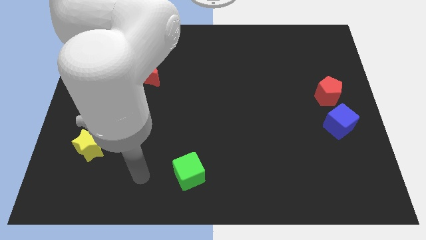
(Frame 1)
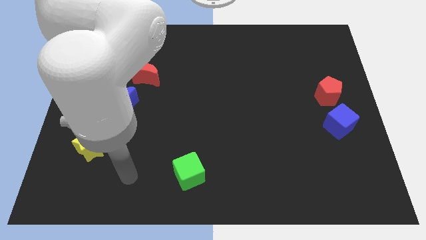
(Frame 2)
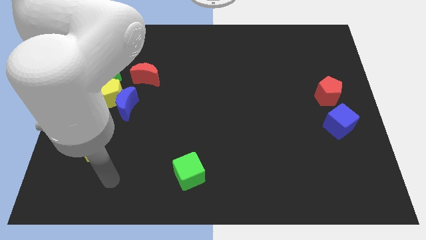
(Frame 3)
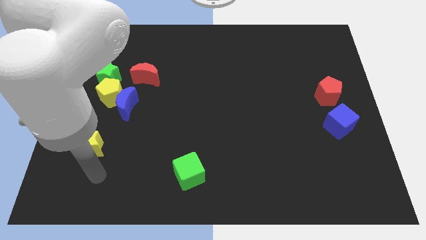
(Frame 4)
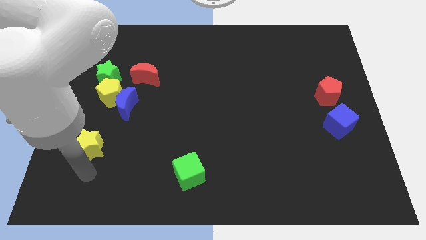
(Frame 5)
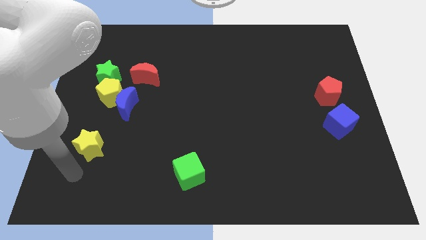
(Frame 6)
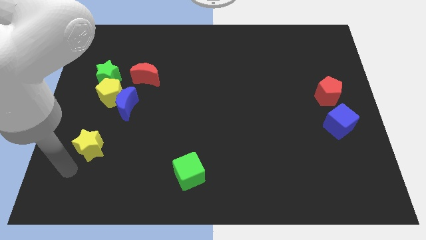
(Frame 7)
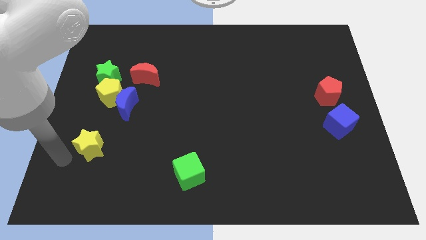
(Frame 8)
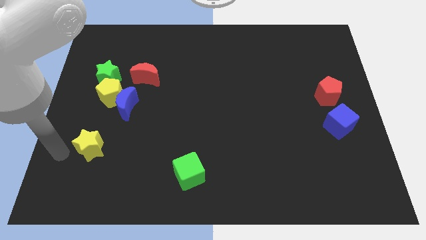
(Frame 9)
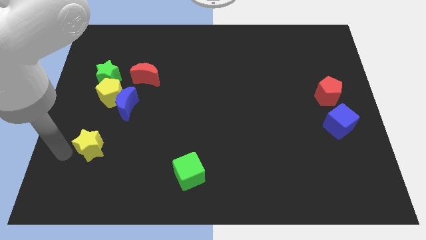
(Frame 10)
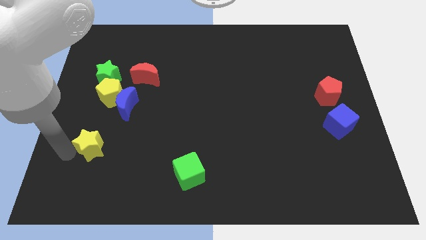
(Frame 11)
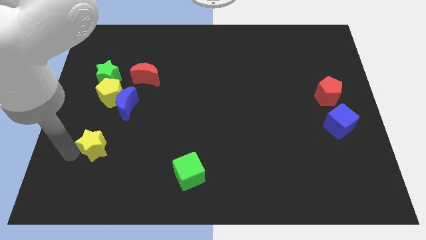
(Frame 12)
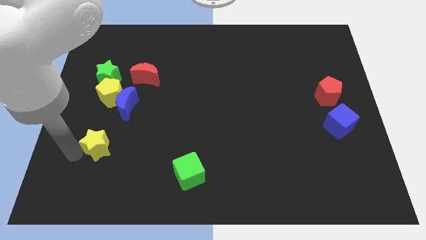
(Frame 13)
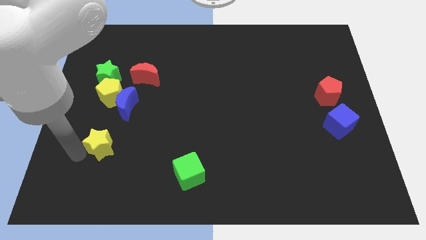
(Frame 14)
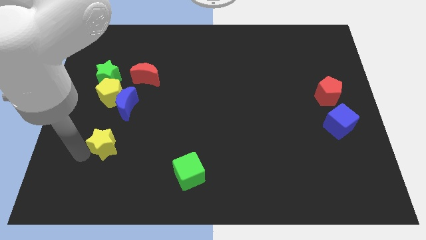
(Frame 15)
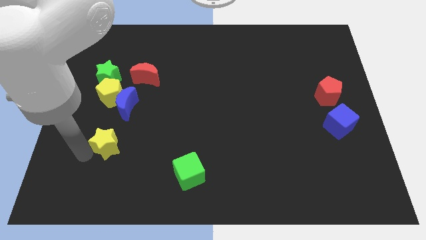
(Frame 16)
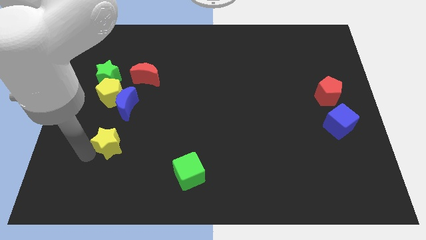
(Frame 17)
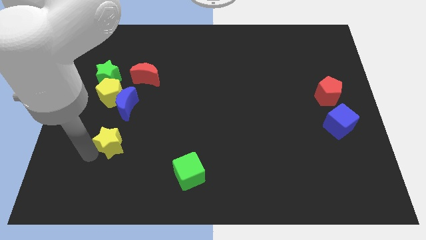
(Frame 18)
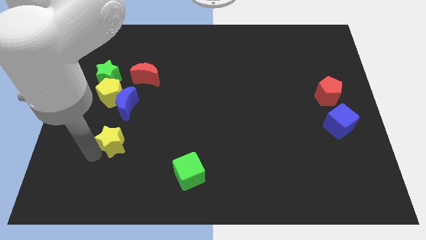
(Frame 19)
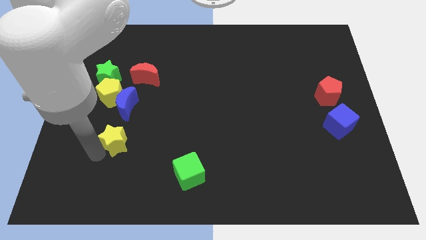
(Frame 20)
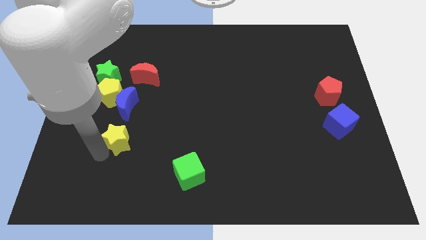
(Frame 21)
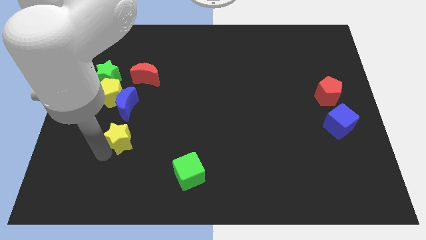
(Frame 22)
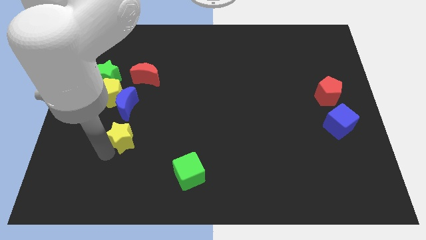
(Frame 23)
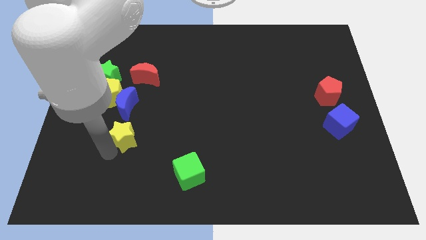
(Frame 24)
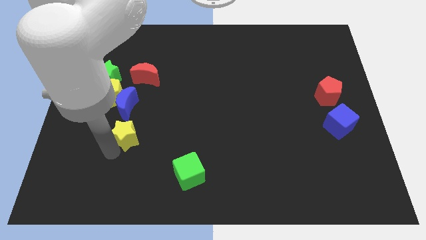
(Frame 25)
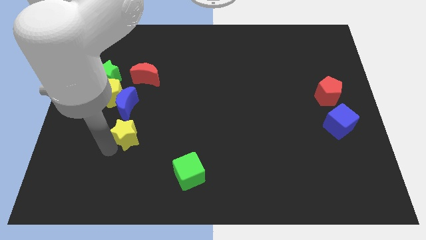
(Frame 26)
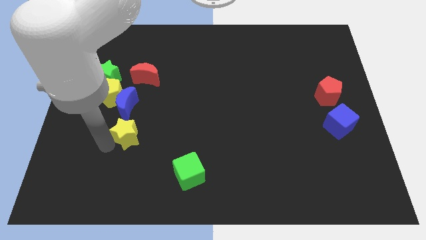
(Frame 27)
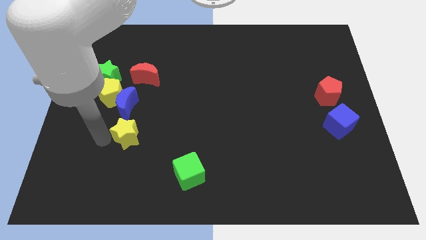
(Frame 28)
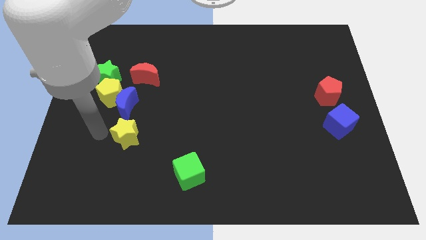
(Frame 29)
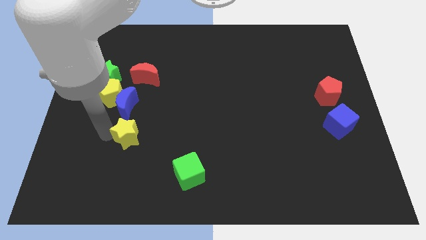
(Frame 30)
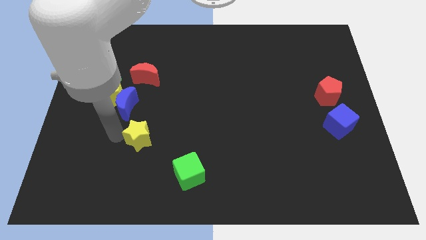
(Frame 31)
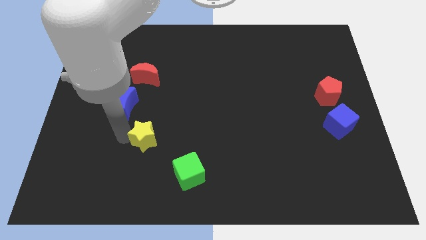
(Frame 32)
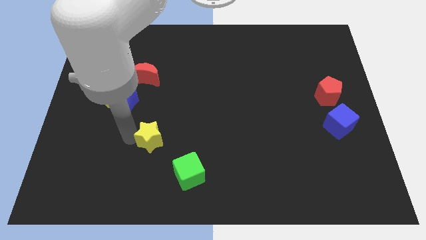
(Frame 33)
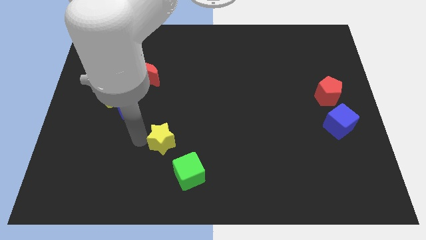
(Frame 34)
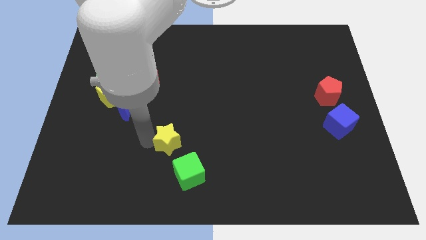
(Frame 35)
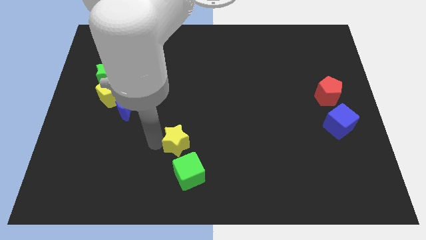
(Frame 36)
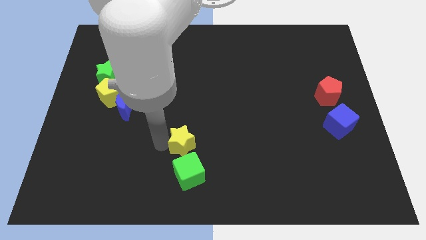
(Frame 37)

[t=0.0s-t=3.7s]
slide the yellow star to the right

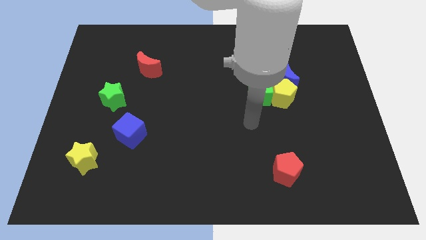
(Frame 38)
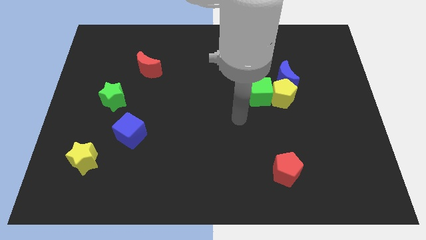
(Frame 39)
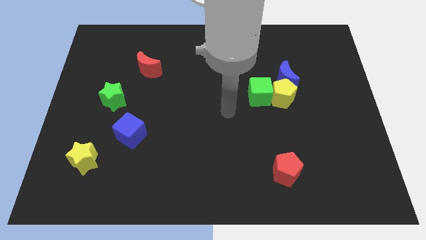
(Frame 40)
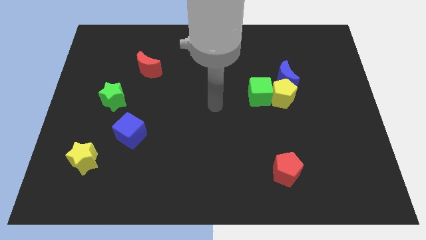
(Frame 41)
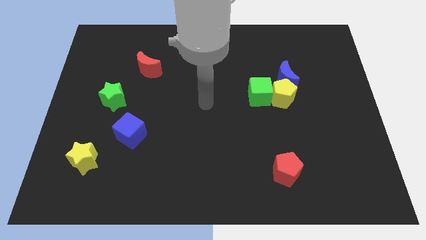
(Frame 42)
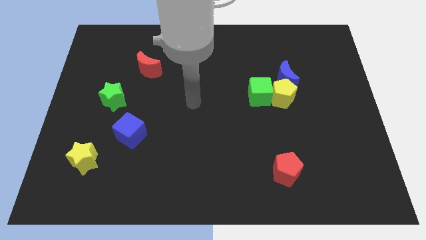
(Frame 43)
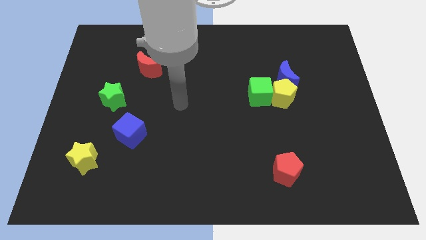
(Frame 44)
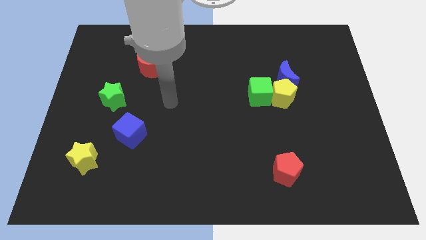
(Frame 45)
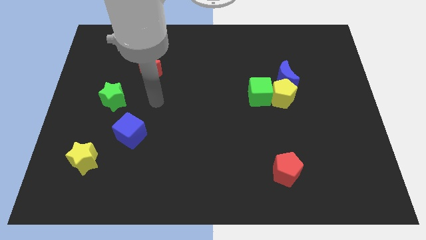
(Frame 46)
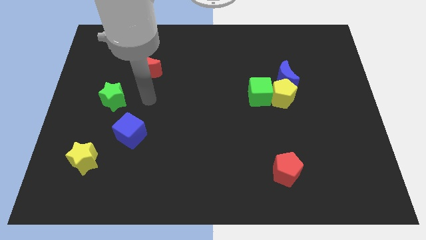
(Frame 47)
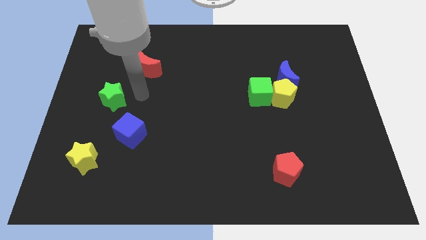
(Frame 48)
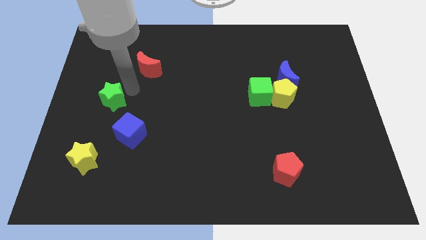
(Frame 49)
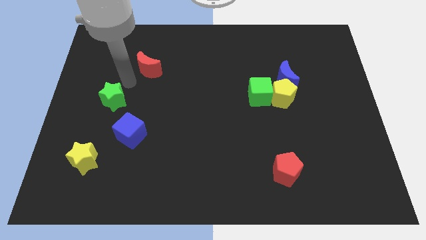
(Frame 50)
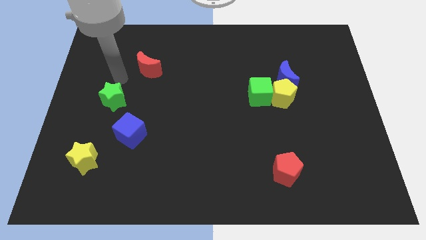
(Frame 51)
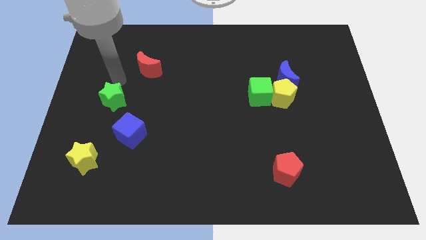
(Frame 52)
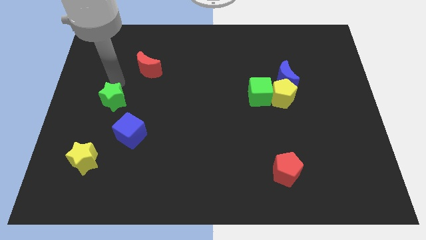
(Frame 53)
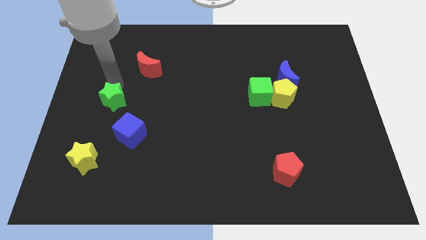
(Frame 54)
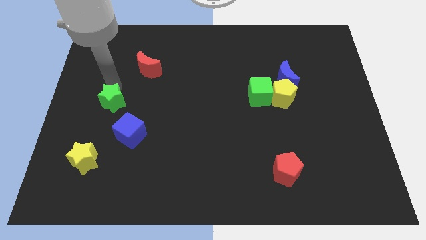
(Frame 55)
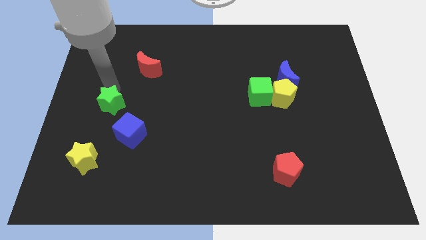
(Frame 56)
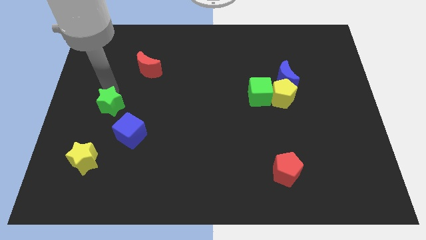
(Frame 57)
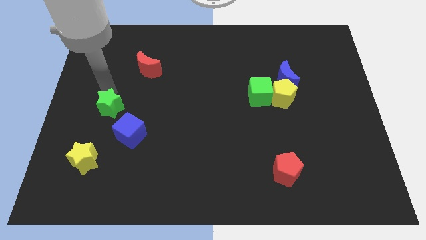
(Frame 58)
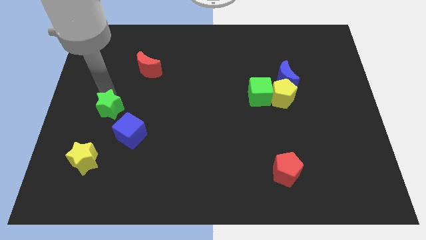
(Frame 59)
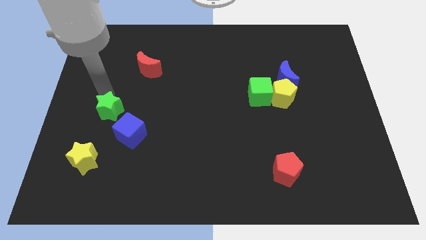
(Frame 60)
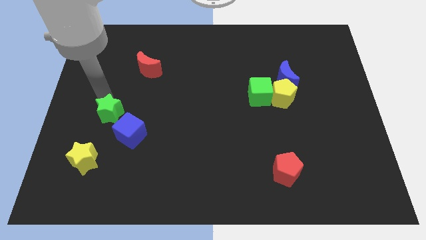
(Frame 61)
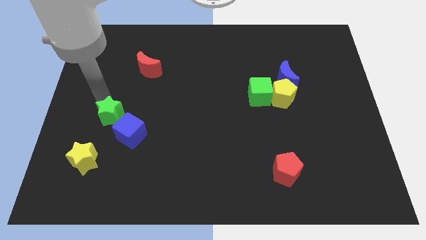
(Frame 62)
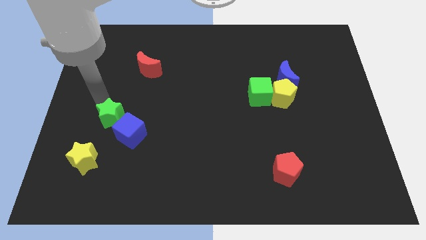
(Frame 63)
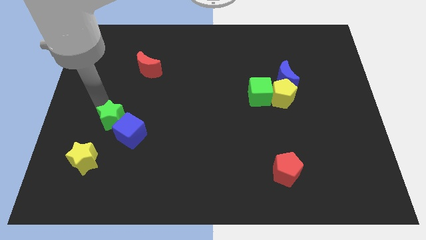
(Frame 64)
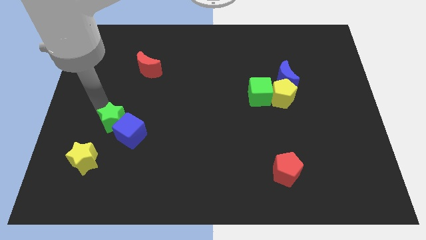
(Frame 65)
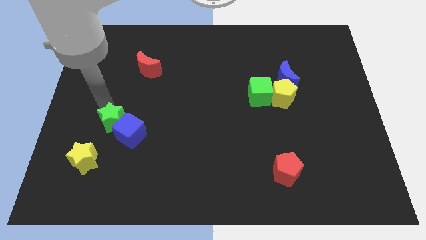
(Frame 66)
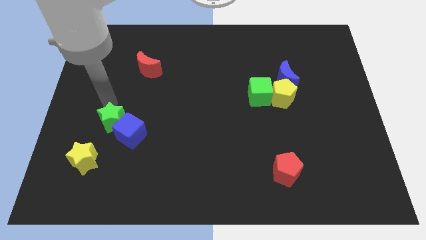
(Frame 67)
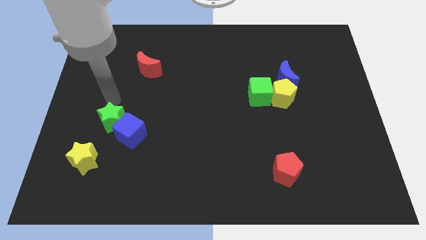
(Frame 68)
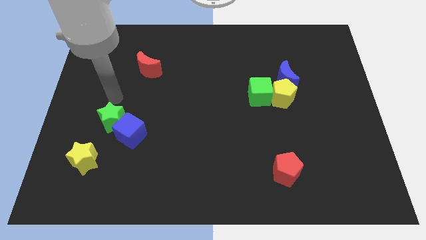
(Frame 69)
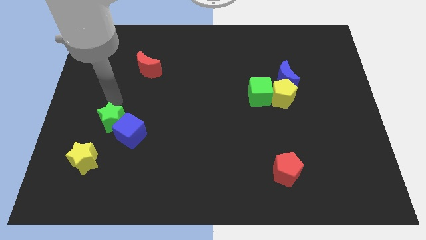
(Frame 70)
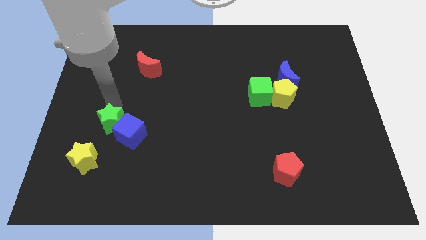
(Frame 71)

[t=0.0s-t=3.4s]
slightly push the green star downwards

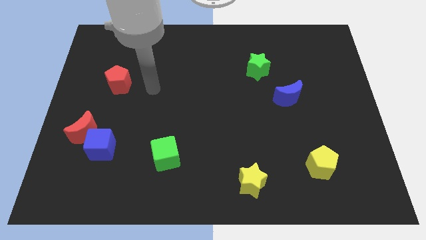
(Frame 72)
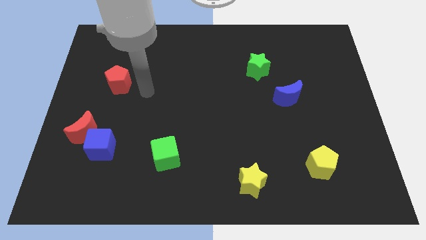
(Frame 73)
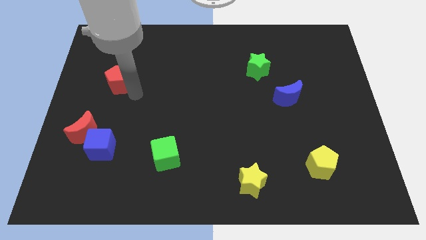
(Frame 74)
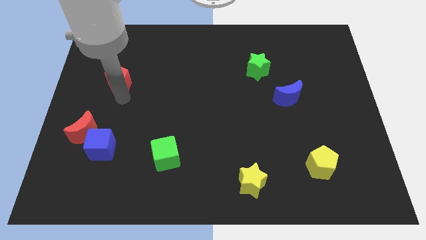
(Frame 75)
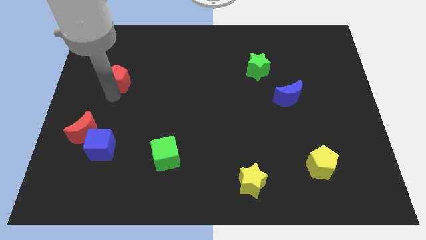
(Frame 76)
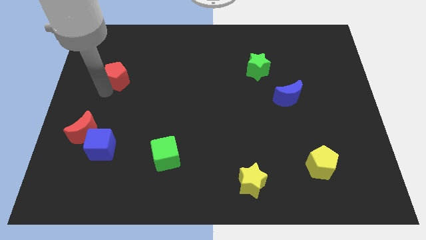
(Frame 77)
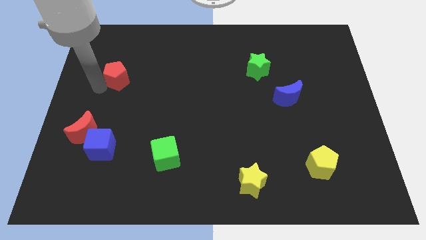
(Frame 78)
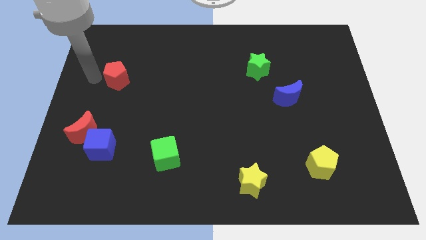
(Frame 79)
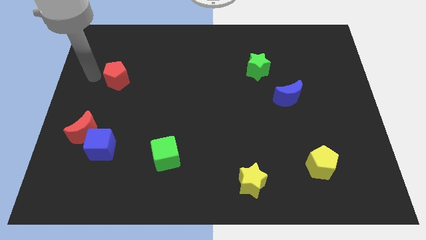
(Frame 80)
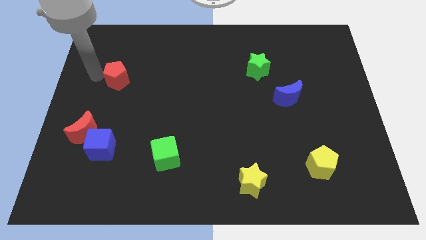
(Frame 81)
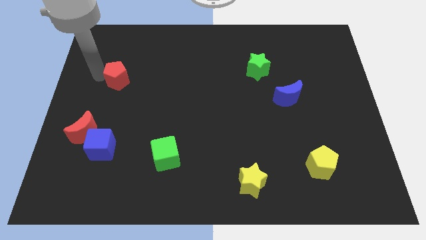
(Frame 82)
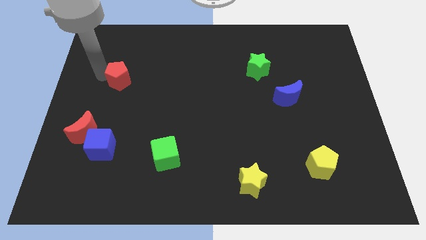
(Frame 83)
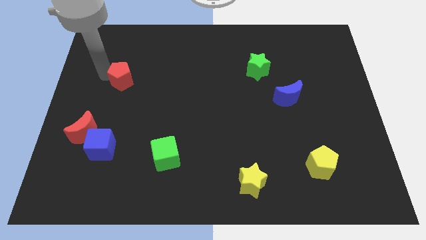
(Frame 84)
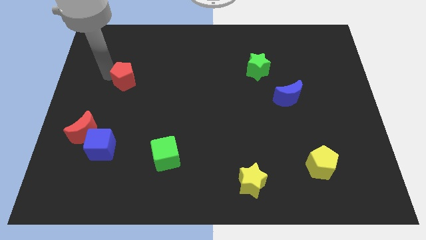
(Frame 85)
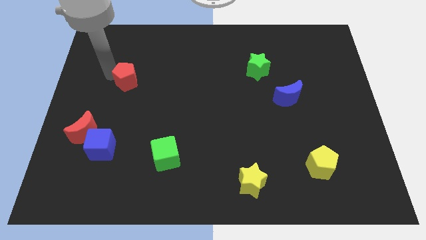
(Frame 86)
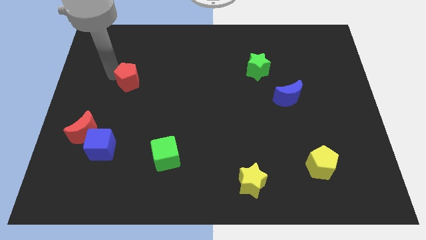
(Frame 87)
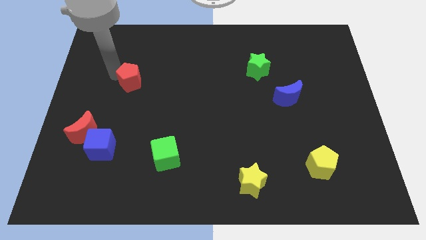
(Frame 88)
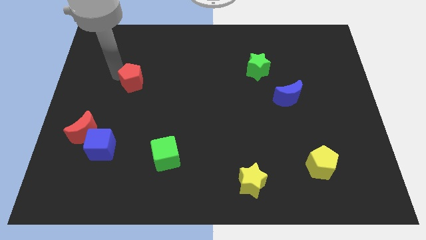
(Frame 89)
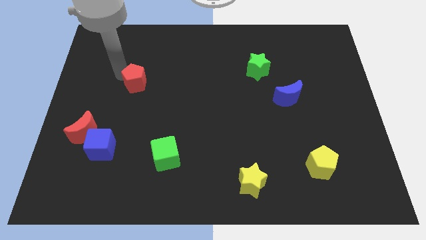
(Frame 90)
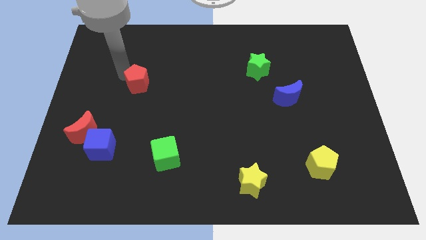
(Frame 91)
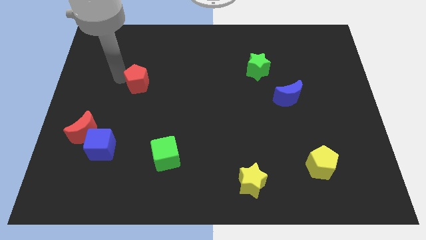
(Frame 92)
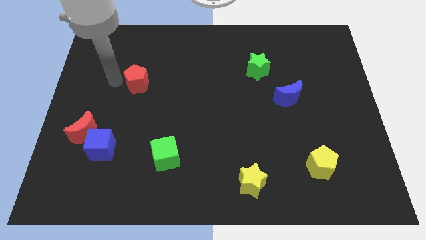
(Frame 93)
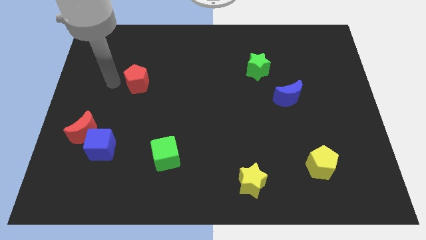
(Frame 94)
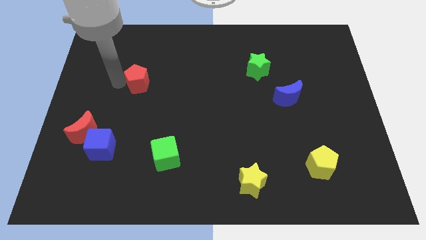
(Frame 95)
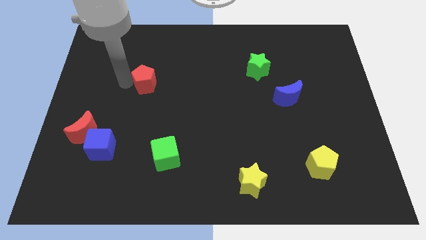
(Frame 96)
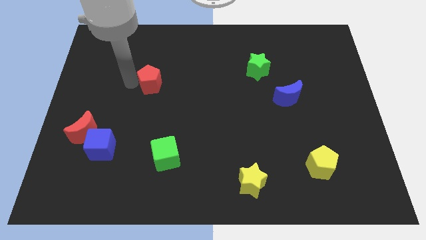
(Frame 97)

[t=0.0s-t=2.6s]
move the red pentagon to the right slightly
